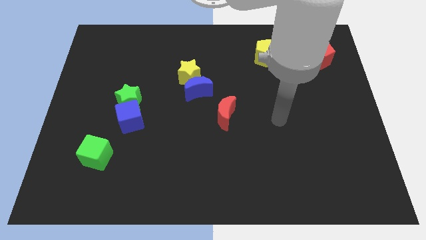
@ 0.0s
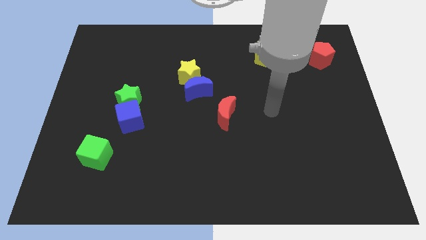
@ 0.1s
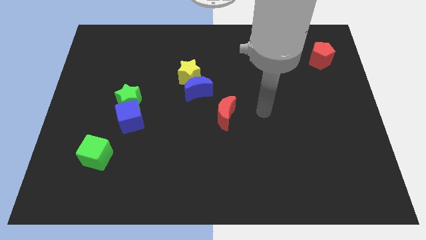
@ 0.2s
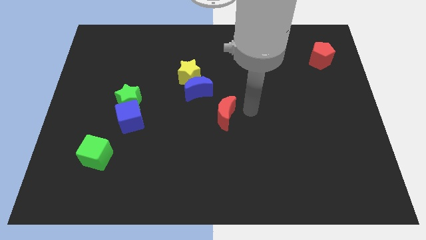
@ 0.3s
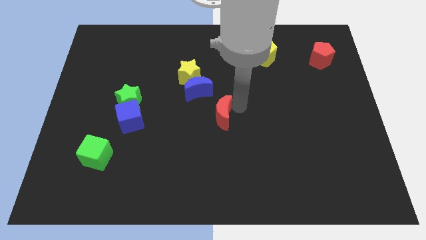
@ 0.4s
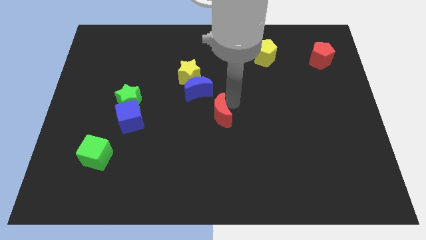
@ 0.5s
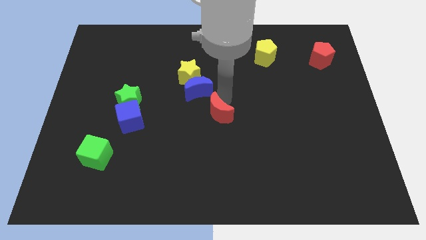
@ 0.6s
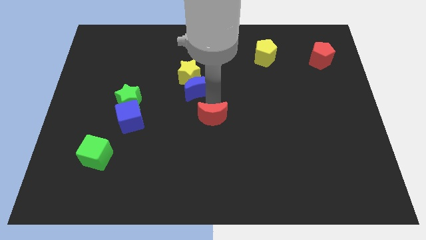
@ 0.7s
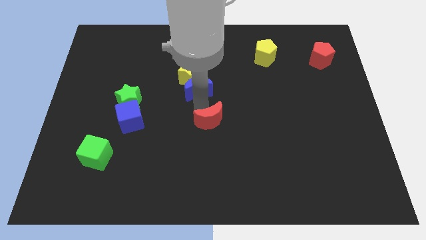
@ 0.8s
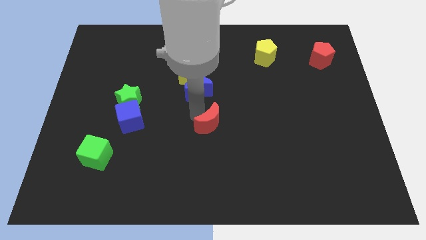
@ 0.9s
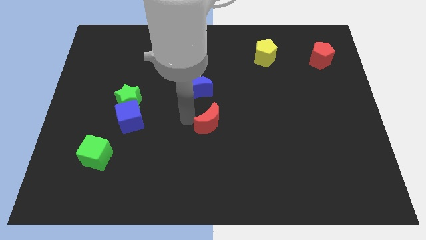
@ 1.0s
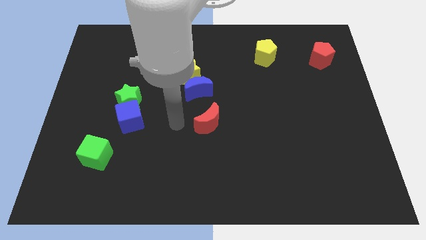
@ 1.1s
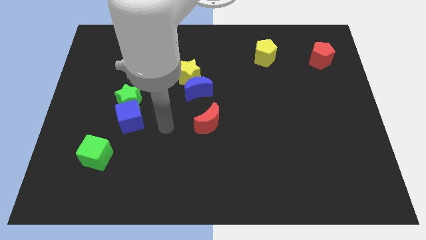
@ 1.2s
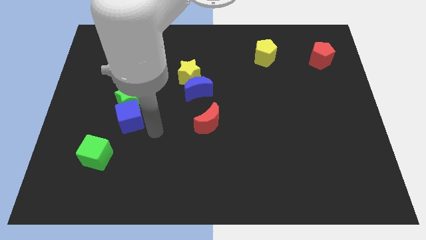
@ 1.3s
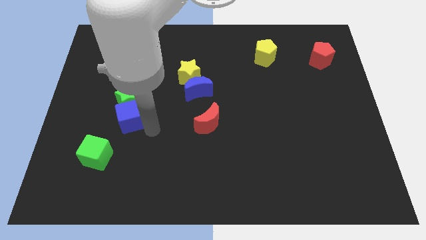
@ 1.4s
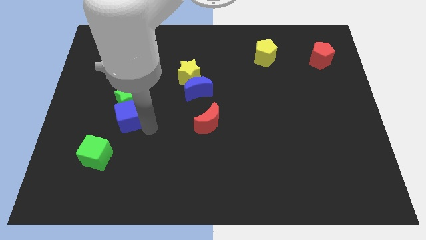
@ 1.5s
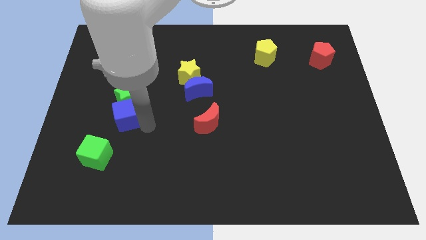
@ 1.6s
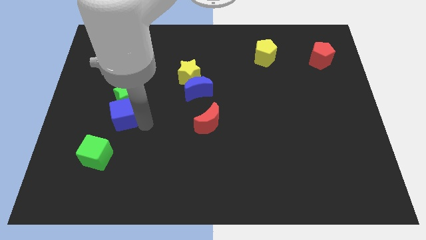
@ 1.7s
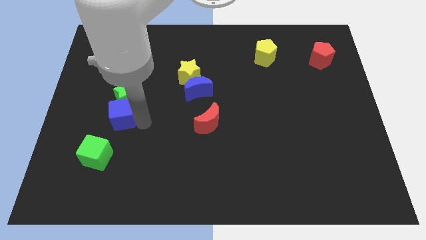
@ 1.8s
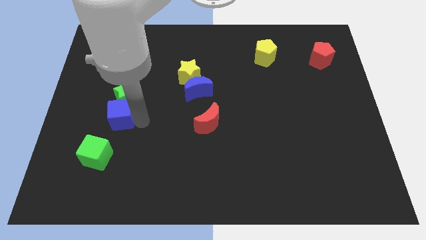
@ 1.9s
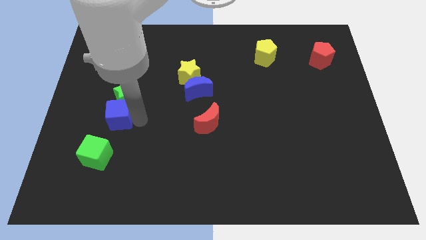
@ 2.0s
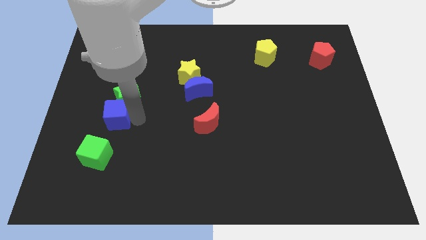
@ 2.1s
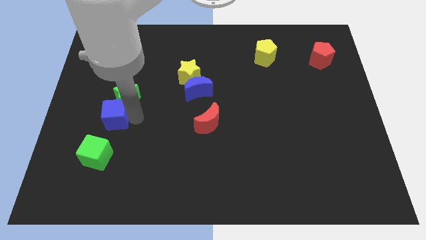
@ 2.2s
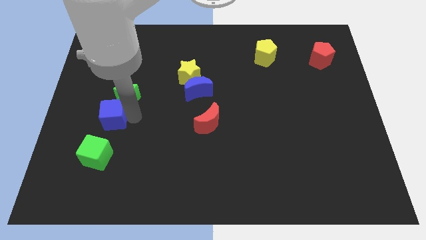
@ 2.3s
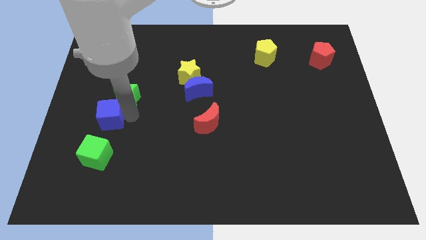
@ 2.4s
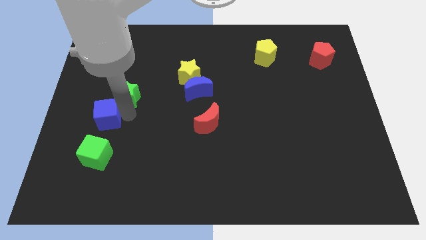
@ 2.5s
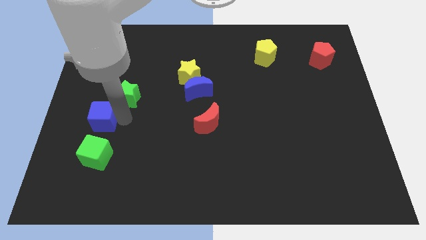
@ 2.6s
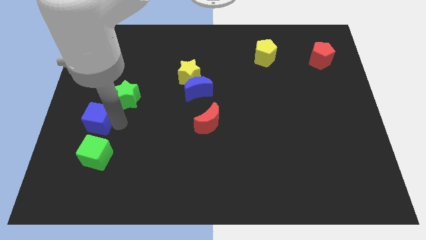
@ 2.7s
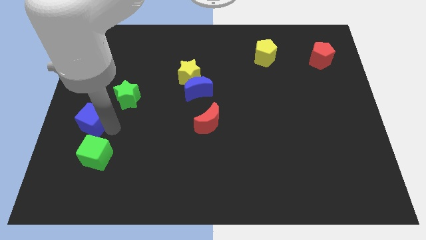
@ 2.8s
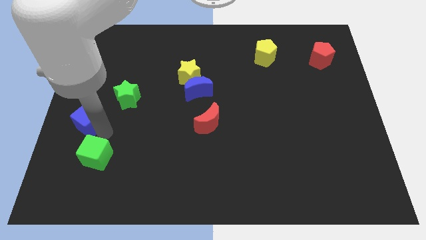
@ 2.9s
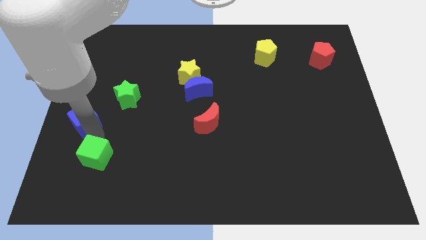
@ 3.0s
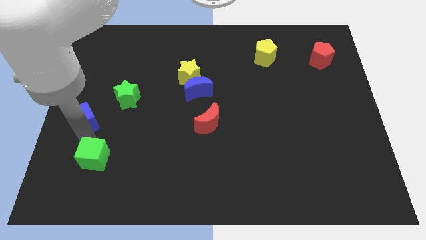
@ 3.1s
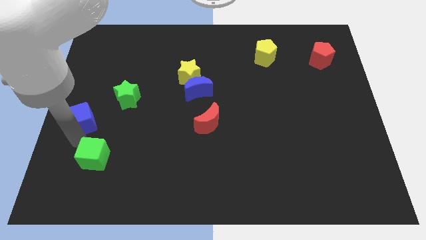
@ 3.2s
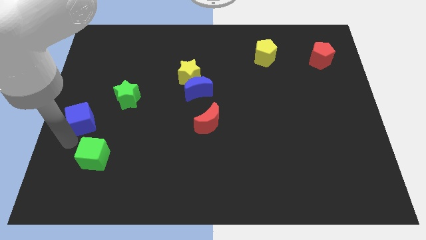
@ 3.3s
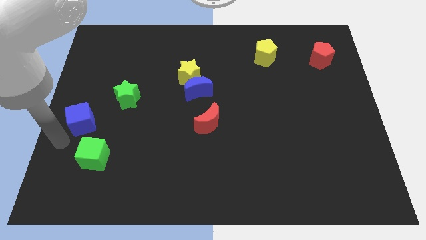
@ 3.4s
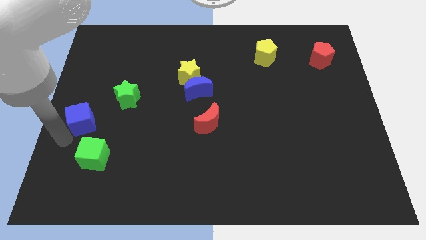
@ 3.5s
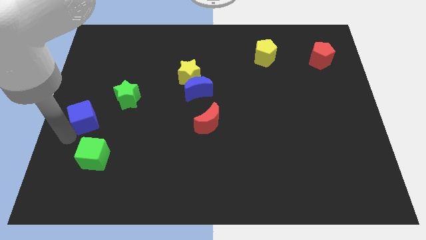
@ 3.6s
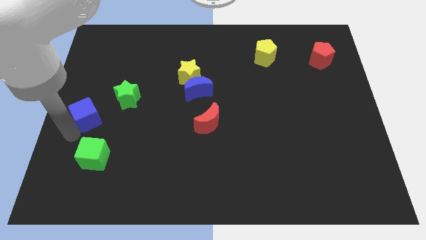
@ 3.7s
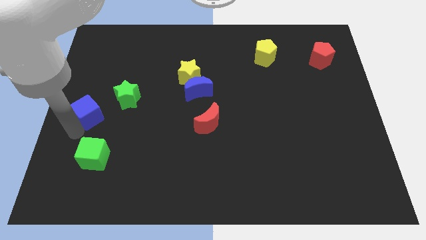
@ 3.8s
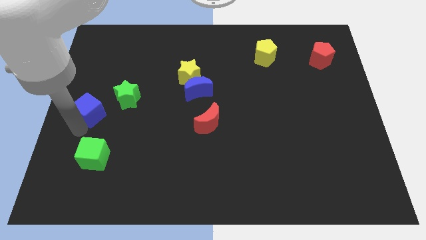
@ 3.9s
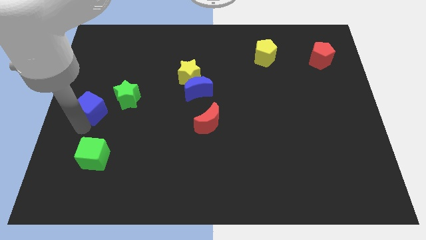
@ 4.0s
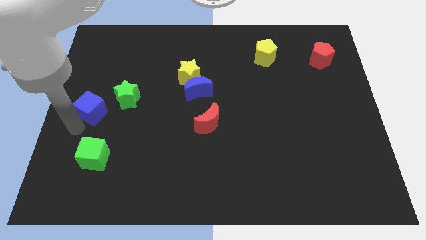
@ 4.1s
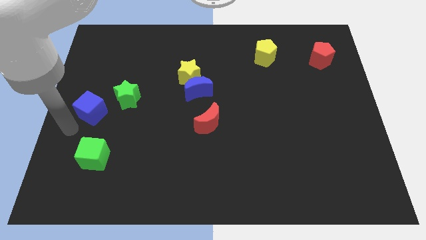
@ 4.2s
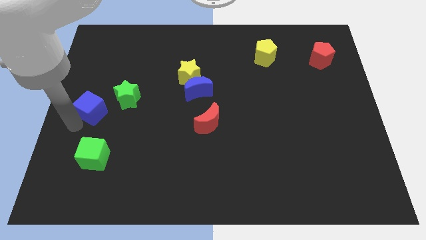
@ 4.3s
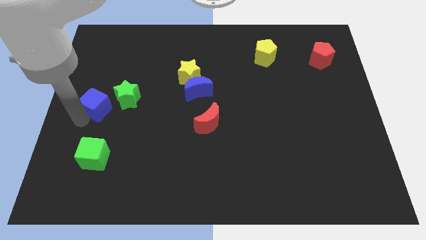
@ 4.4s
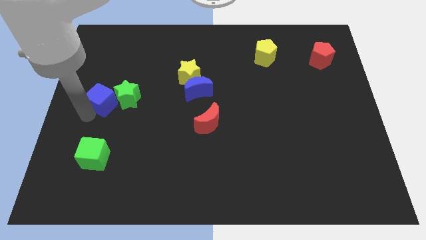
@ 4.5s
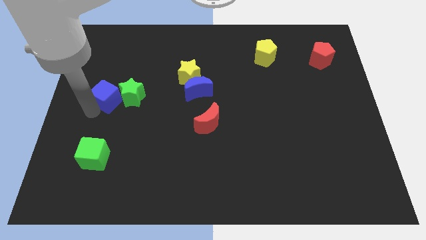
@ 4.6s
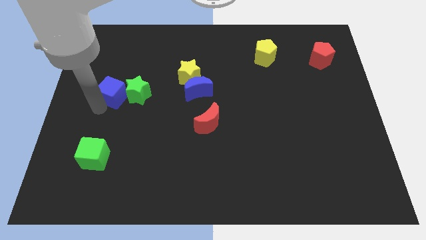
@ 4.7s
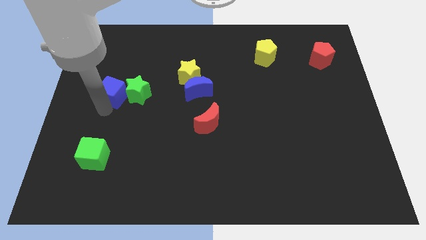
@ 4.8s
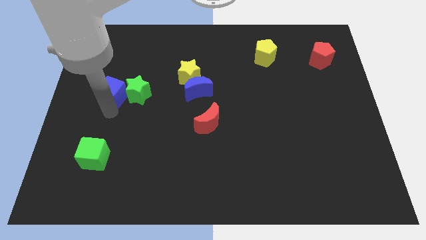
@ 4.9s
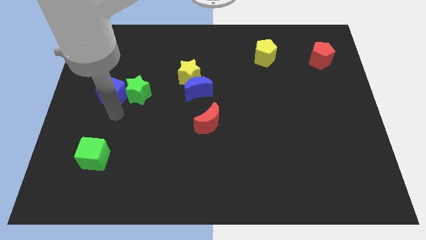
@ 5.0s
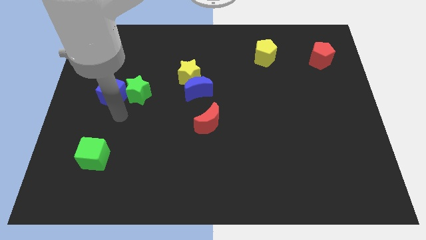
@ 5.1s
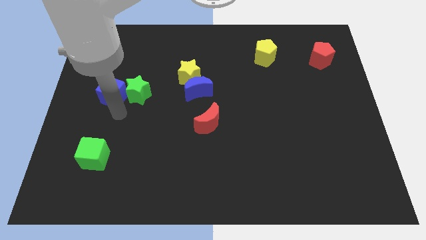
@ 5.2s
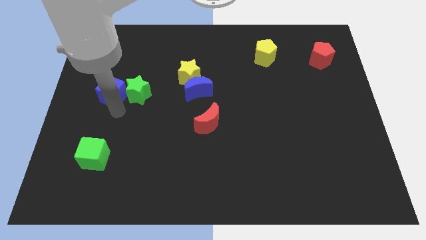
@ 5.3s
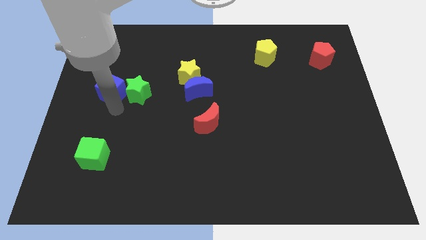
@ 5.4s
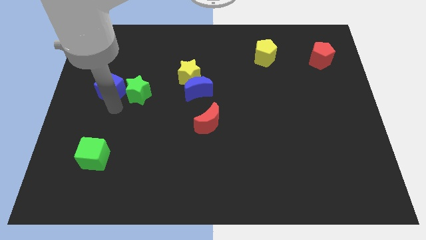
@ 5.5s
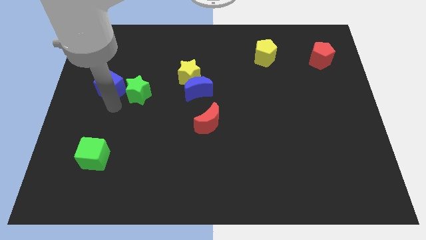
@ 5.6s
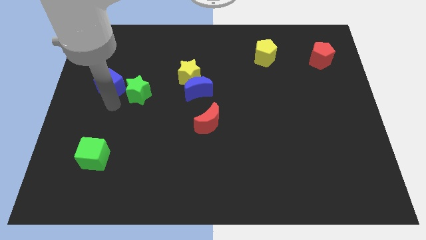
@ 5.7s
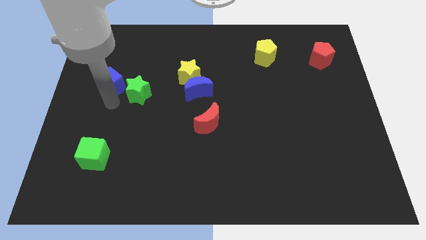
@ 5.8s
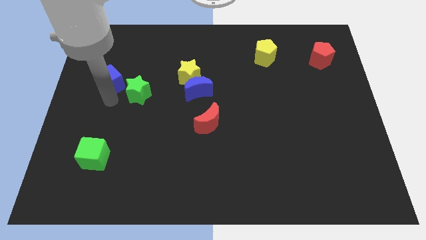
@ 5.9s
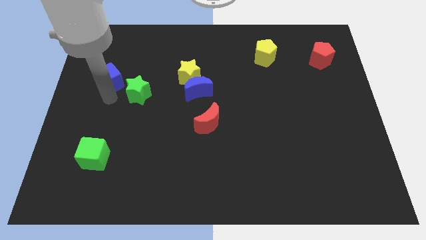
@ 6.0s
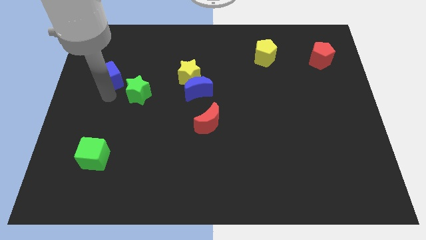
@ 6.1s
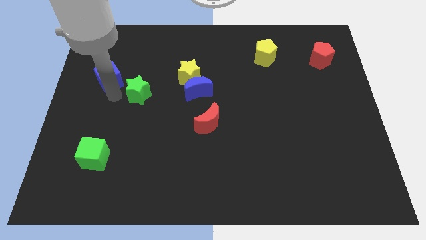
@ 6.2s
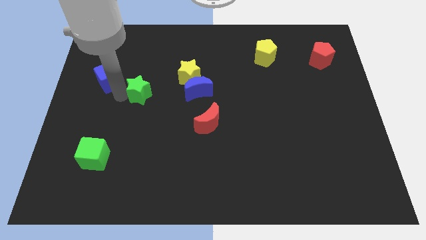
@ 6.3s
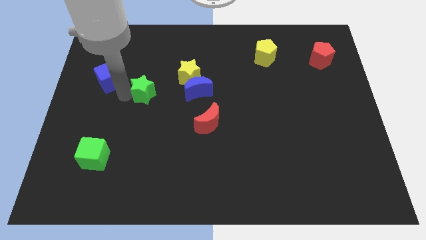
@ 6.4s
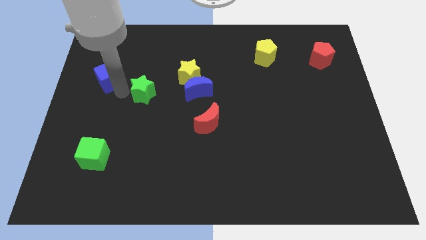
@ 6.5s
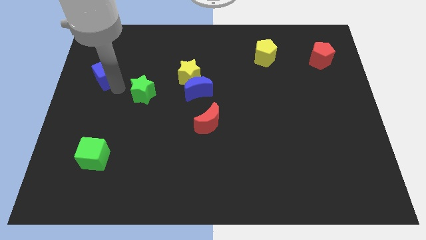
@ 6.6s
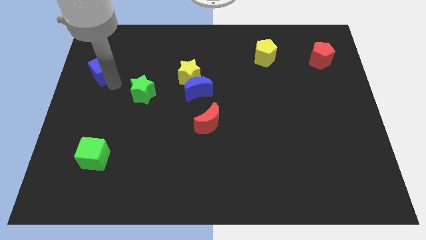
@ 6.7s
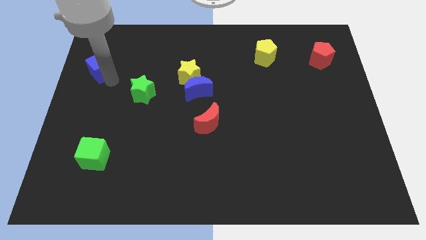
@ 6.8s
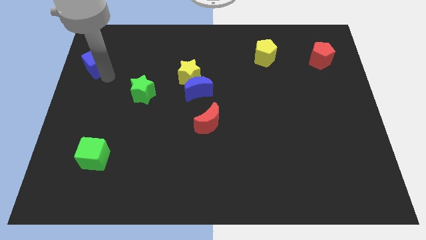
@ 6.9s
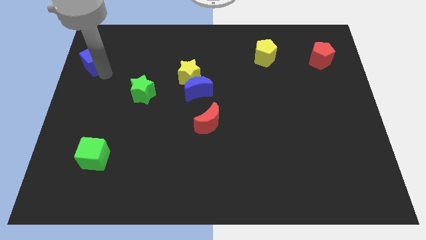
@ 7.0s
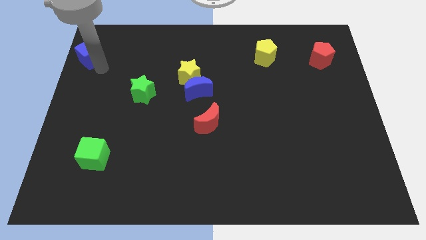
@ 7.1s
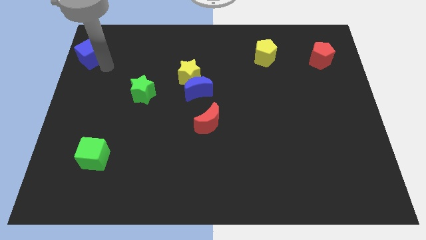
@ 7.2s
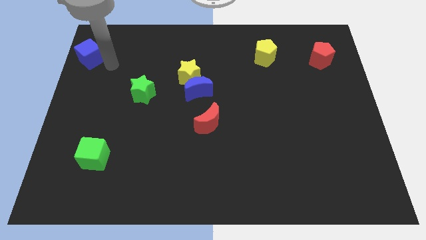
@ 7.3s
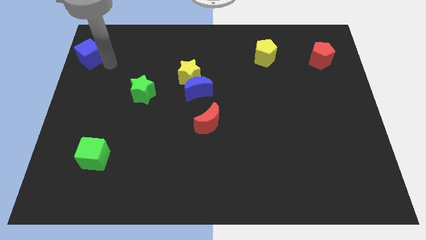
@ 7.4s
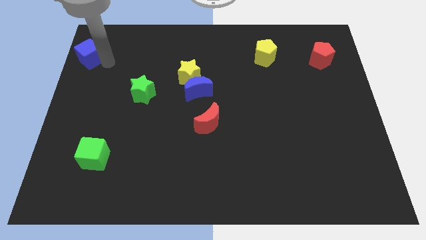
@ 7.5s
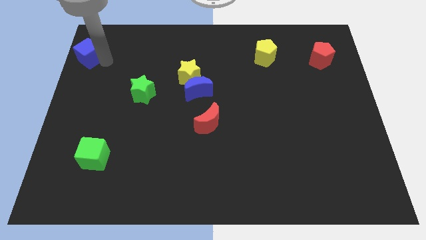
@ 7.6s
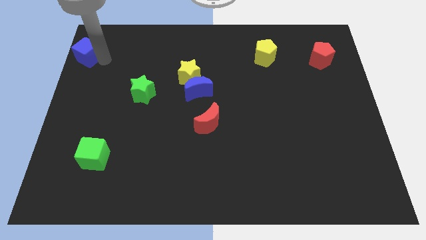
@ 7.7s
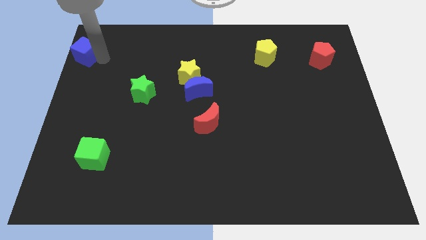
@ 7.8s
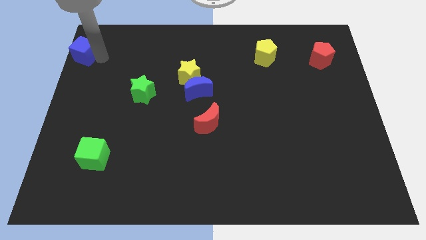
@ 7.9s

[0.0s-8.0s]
slide the blue cube to the top left of the board
